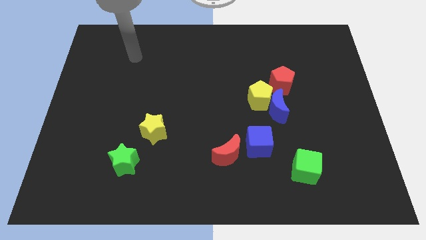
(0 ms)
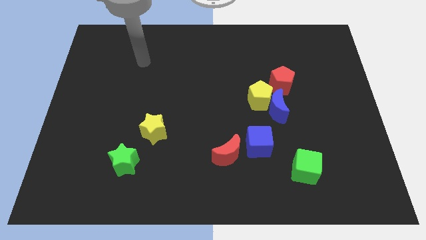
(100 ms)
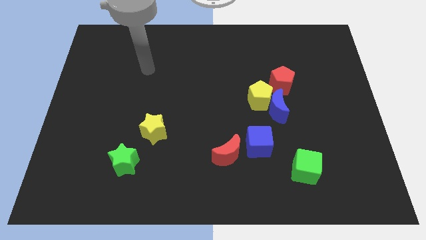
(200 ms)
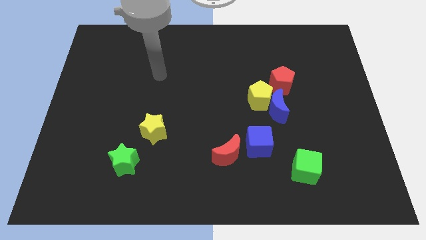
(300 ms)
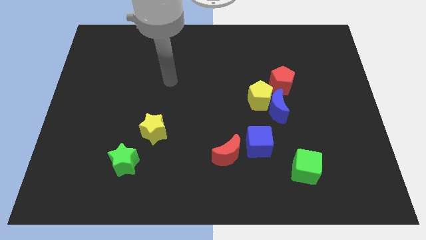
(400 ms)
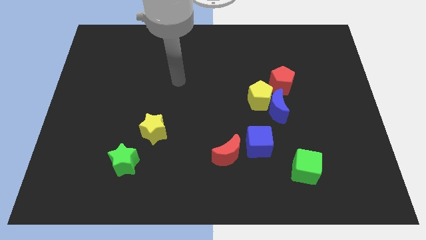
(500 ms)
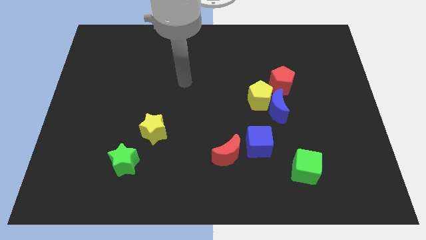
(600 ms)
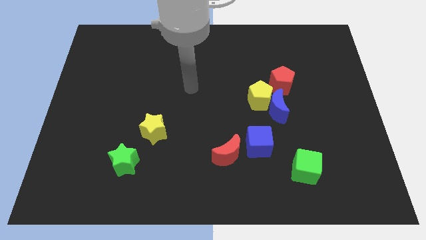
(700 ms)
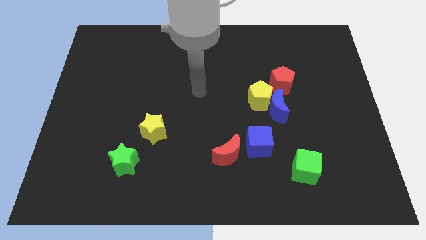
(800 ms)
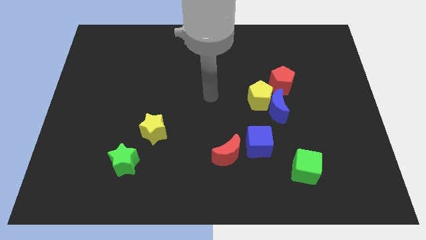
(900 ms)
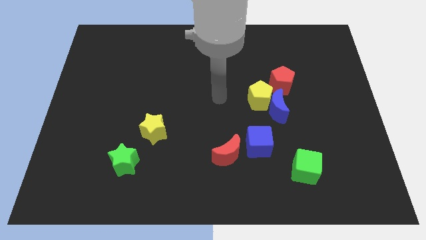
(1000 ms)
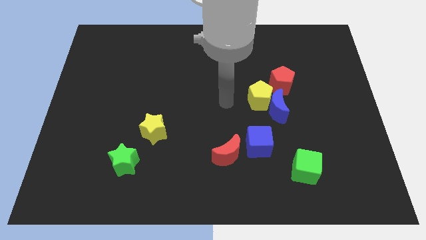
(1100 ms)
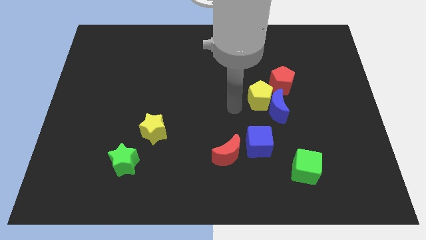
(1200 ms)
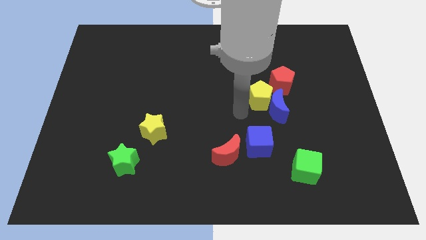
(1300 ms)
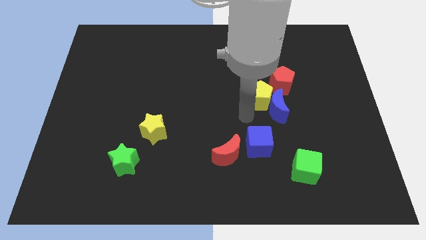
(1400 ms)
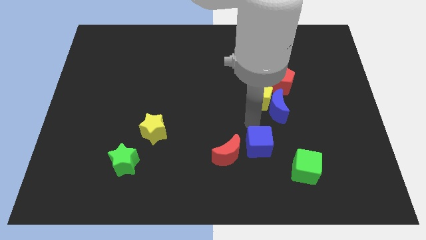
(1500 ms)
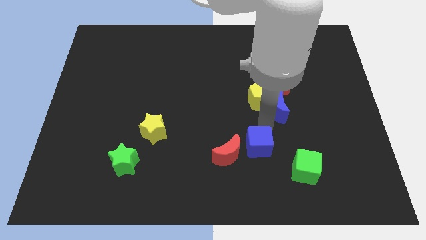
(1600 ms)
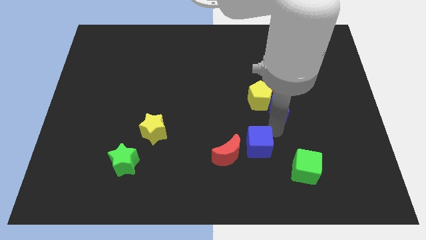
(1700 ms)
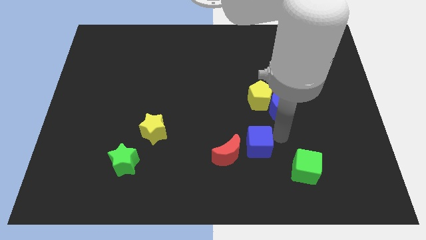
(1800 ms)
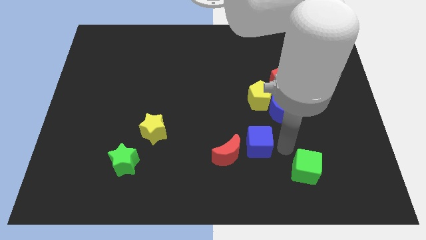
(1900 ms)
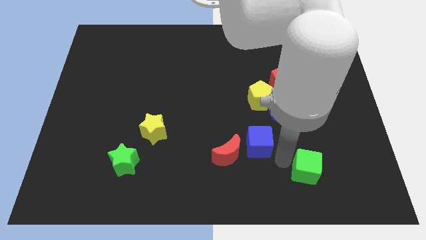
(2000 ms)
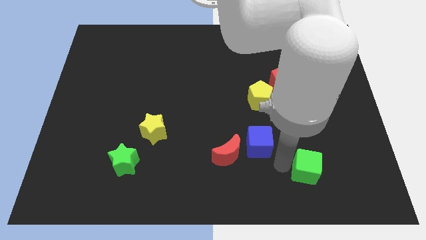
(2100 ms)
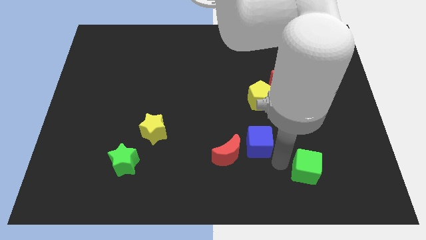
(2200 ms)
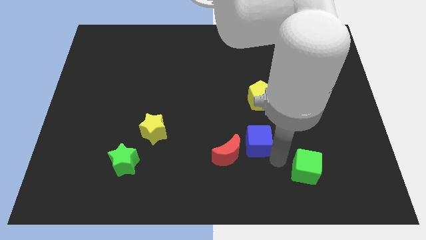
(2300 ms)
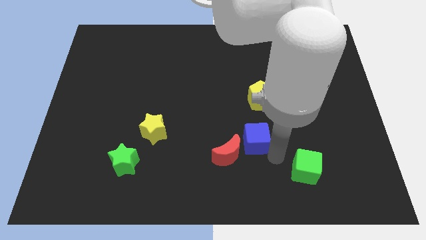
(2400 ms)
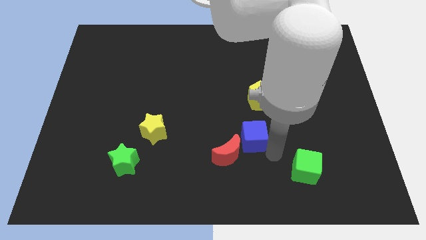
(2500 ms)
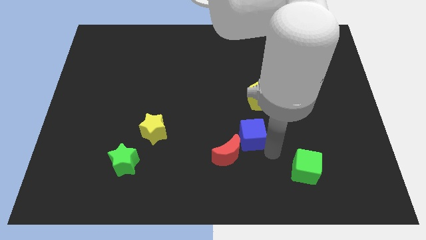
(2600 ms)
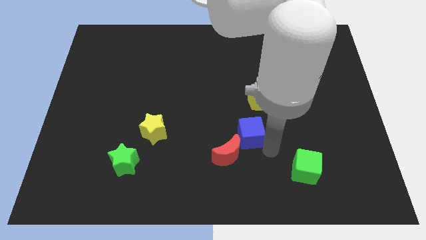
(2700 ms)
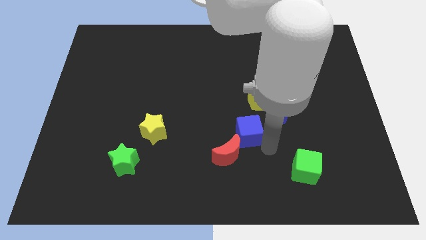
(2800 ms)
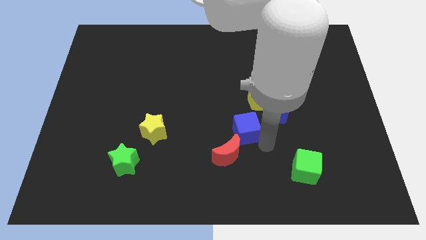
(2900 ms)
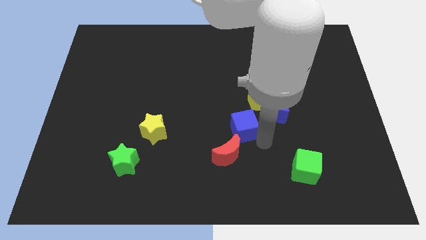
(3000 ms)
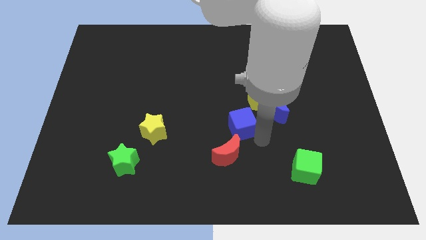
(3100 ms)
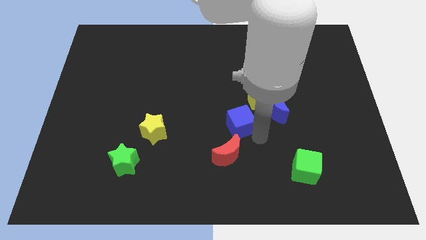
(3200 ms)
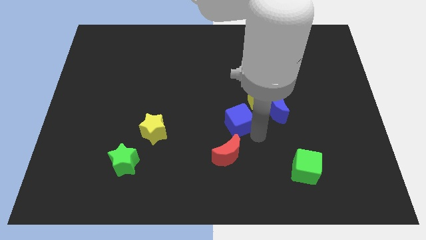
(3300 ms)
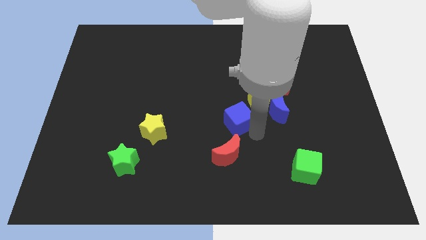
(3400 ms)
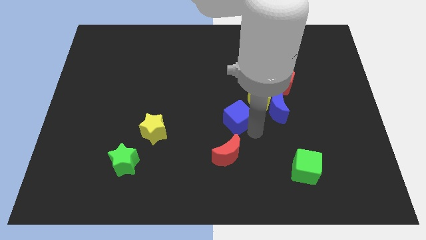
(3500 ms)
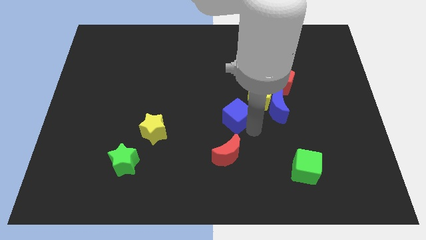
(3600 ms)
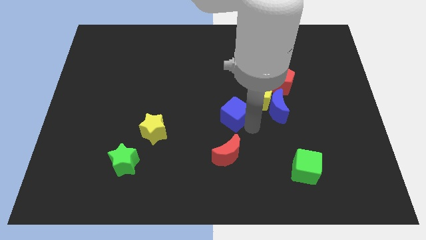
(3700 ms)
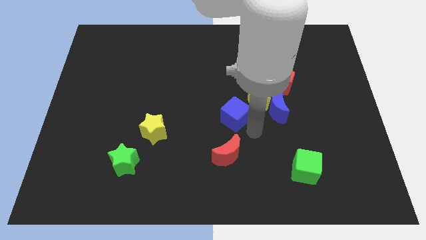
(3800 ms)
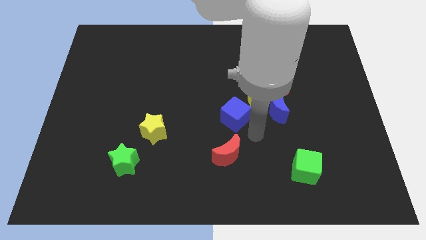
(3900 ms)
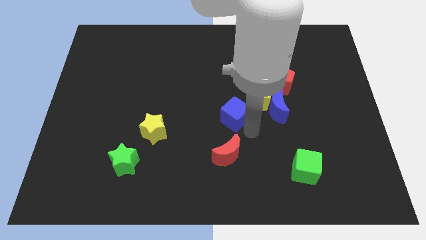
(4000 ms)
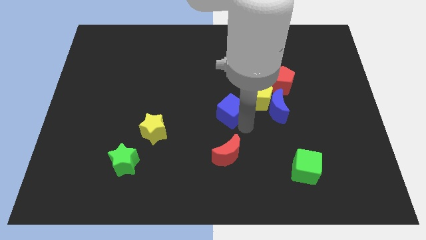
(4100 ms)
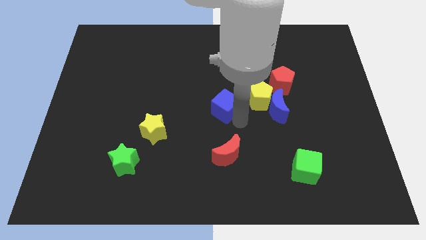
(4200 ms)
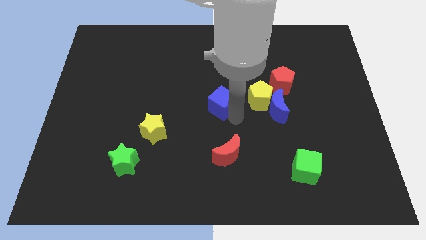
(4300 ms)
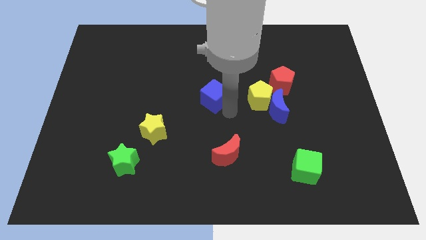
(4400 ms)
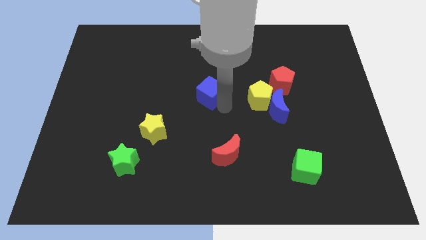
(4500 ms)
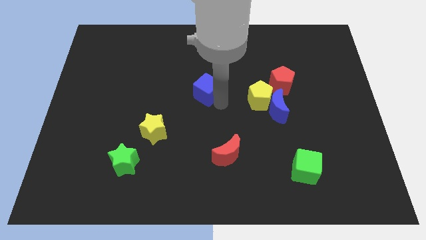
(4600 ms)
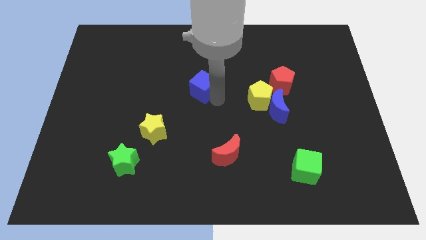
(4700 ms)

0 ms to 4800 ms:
move the blue cube up and left

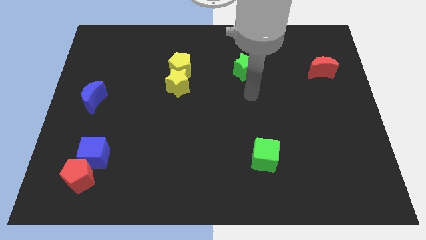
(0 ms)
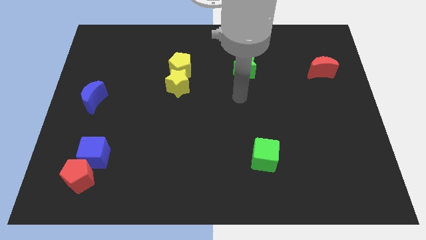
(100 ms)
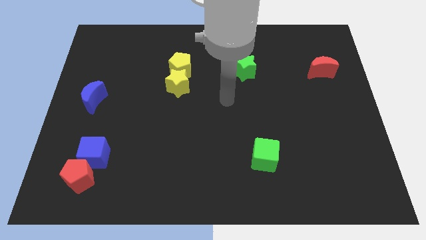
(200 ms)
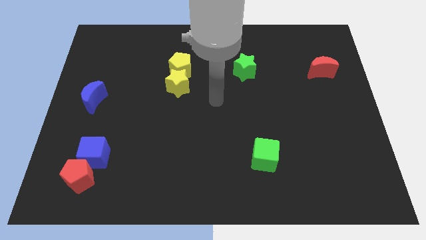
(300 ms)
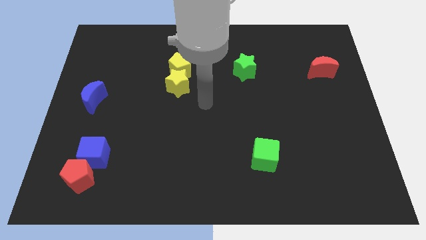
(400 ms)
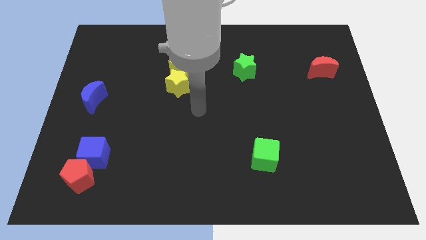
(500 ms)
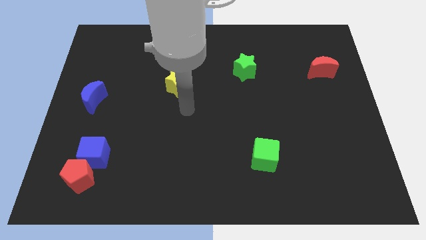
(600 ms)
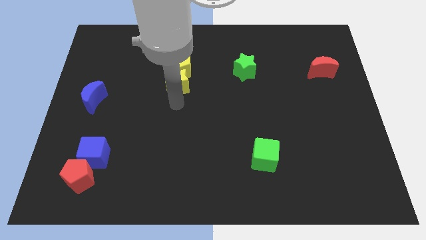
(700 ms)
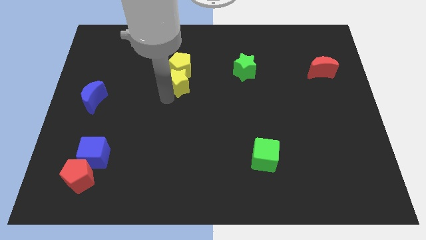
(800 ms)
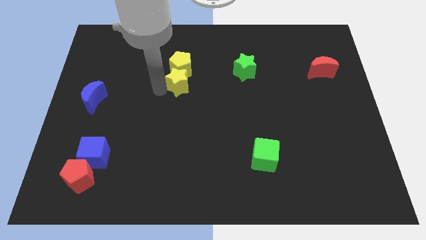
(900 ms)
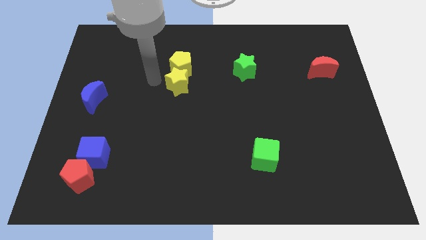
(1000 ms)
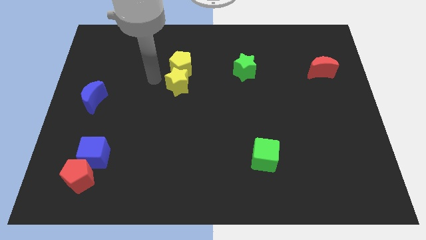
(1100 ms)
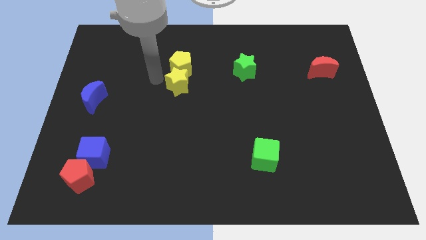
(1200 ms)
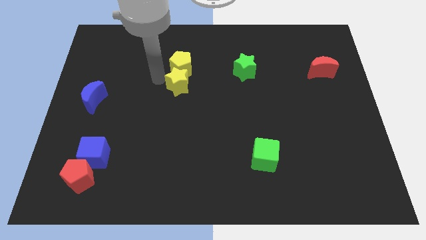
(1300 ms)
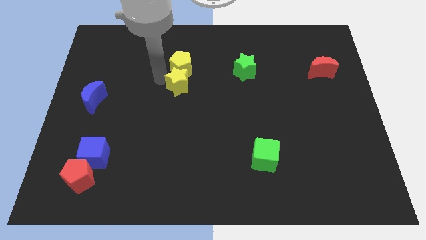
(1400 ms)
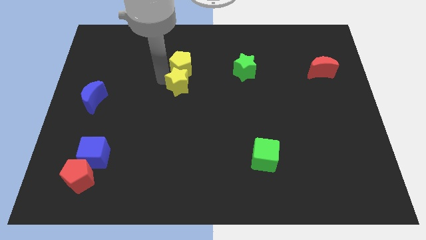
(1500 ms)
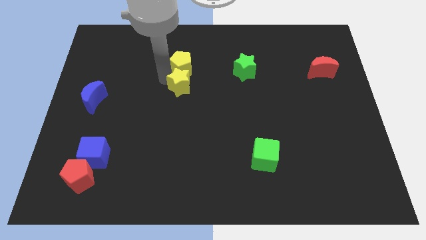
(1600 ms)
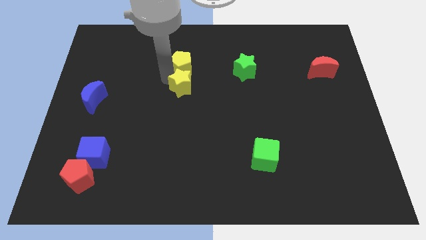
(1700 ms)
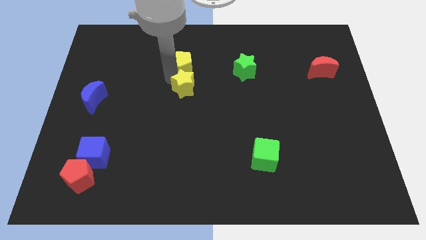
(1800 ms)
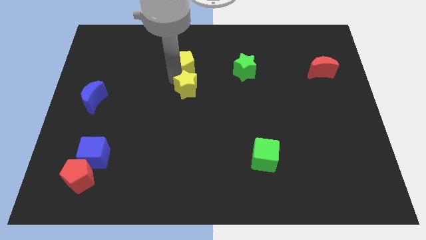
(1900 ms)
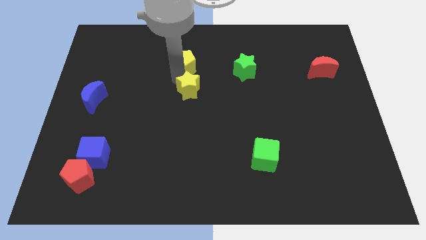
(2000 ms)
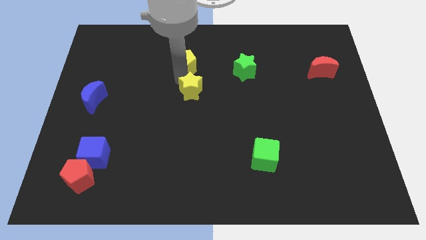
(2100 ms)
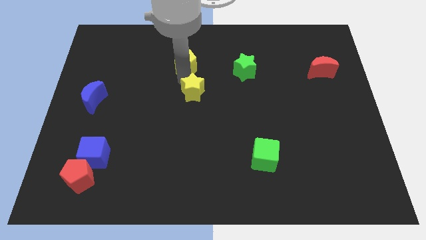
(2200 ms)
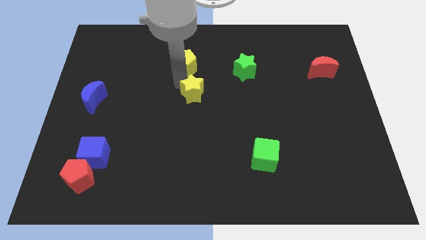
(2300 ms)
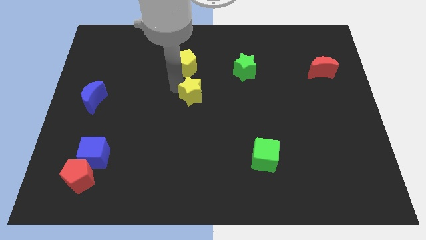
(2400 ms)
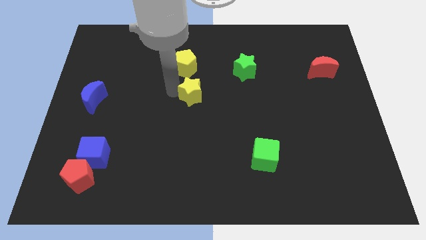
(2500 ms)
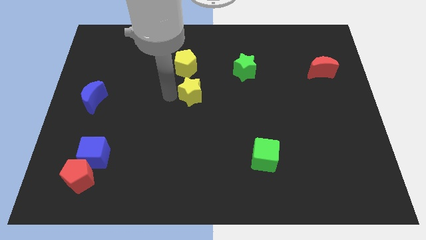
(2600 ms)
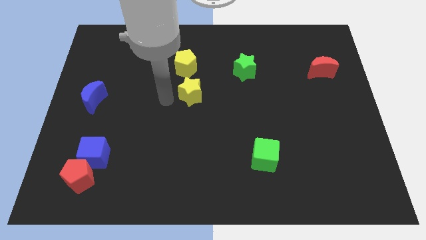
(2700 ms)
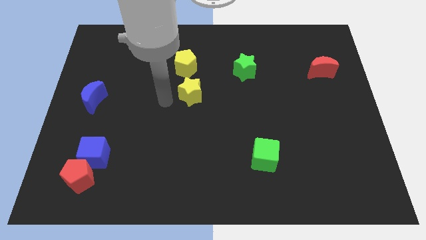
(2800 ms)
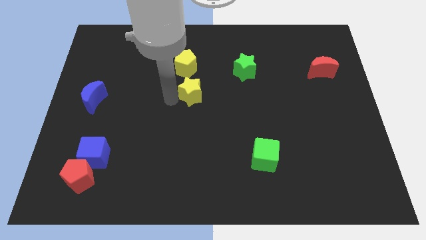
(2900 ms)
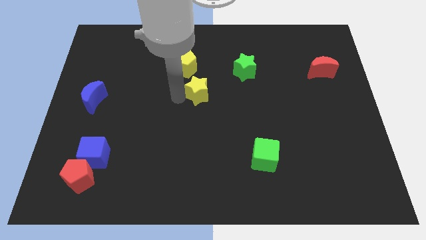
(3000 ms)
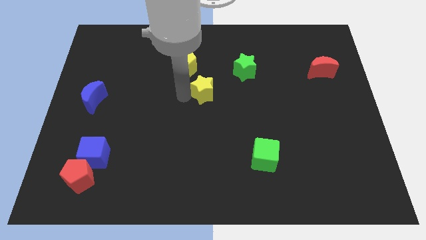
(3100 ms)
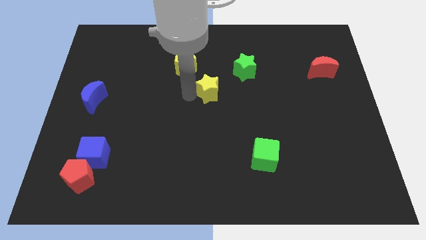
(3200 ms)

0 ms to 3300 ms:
push the yellow star a little bit to the right

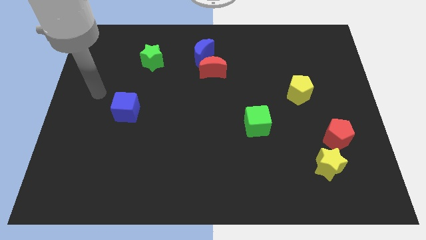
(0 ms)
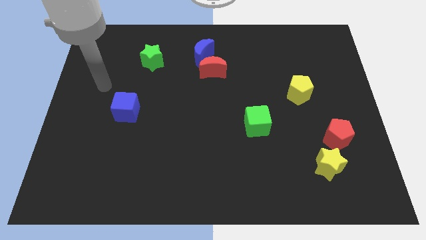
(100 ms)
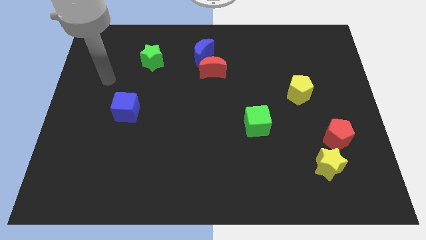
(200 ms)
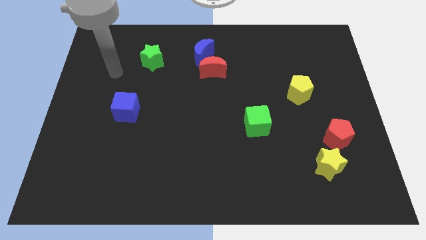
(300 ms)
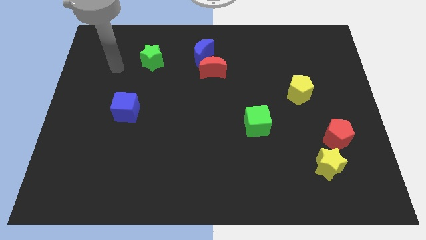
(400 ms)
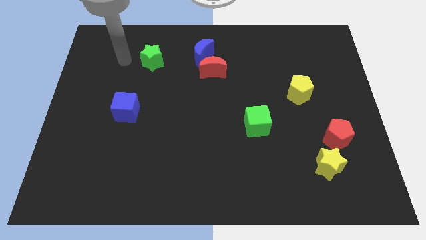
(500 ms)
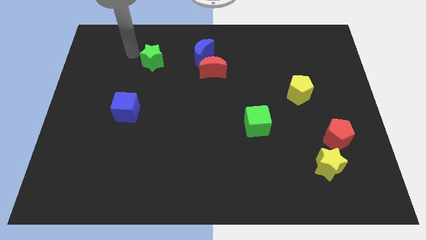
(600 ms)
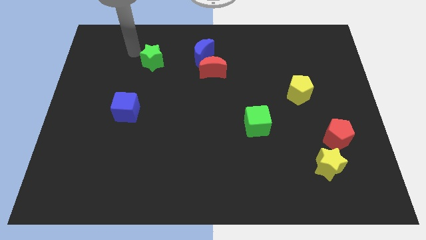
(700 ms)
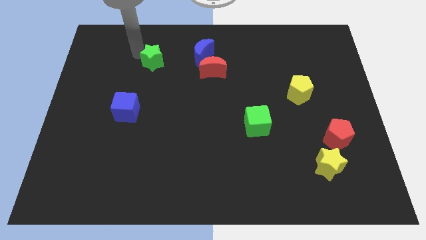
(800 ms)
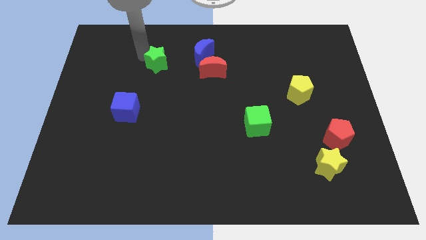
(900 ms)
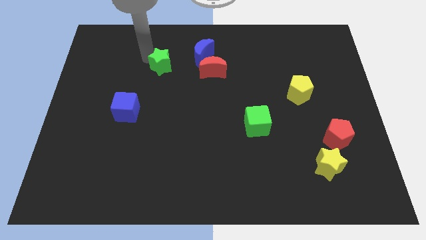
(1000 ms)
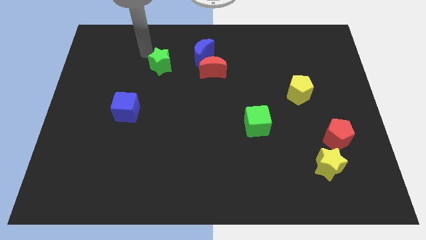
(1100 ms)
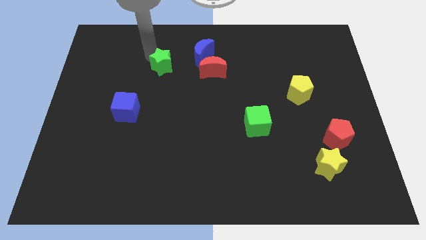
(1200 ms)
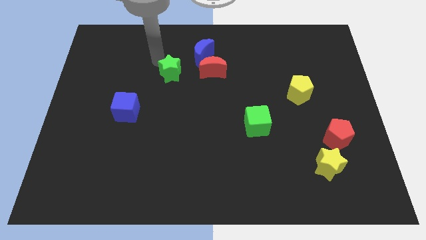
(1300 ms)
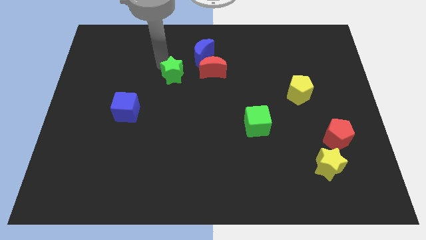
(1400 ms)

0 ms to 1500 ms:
push the green star downwards and to the right diagonally slightly
